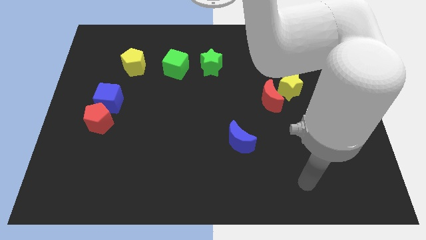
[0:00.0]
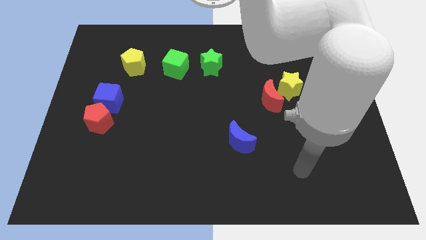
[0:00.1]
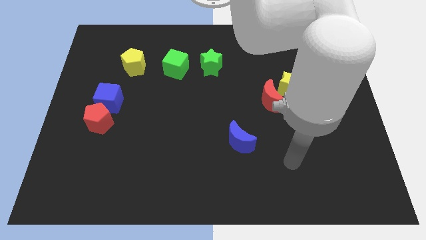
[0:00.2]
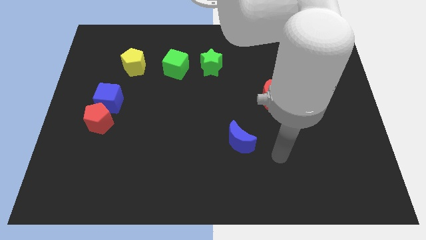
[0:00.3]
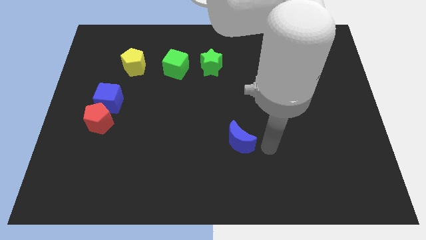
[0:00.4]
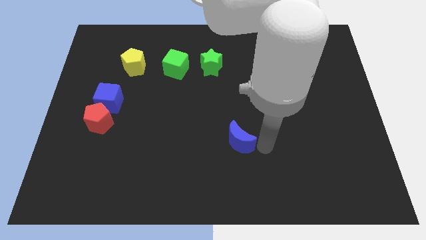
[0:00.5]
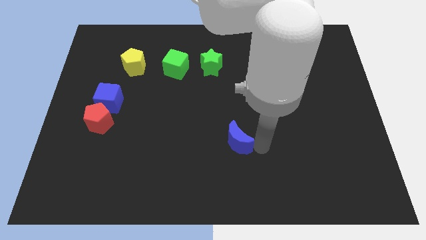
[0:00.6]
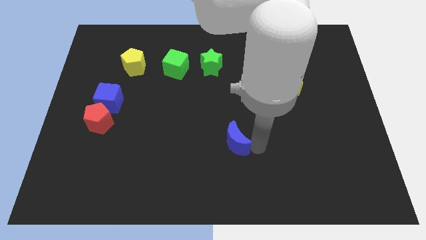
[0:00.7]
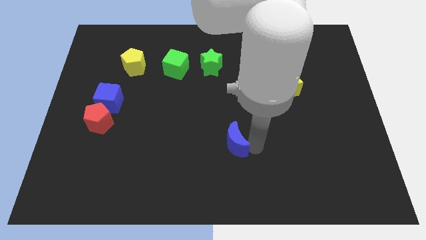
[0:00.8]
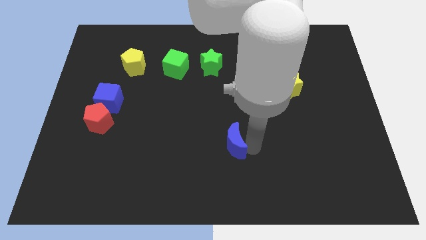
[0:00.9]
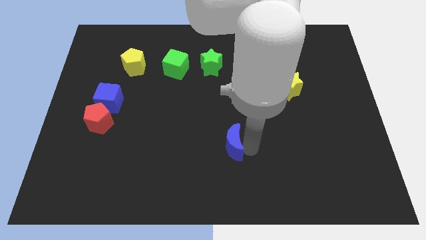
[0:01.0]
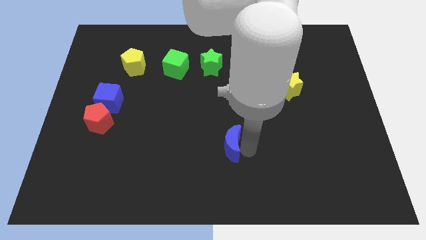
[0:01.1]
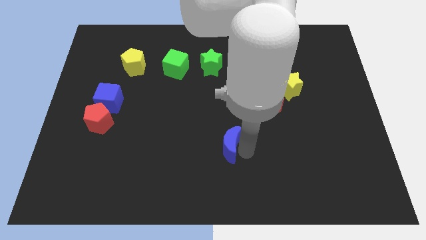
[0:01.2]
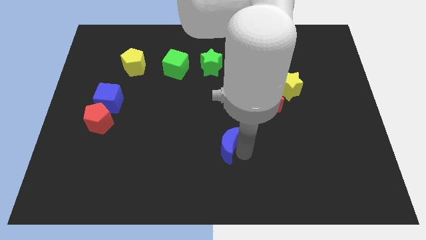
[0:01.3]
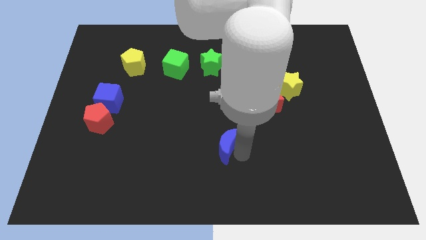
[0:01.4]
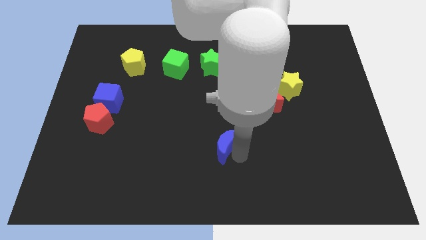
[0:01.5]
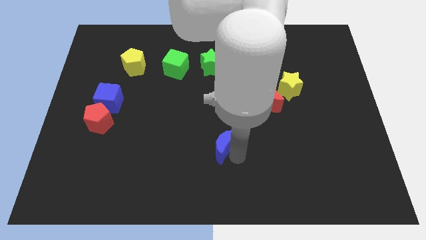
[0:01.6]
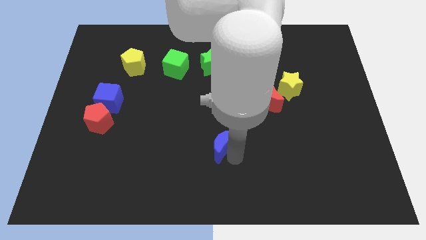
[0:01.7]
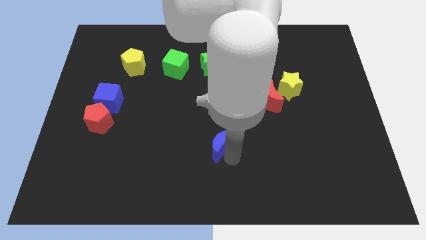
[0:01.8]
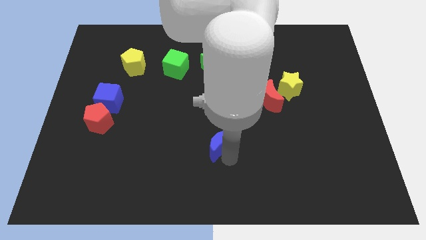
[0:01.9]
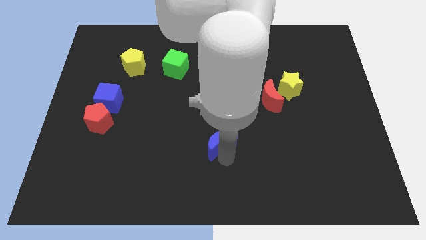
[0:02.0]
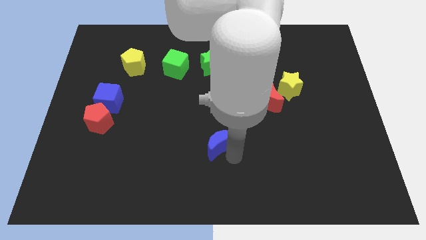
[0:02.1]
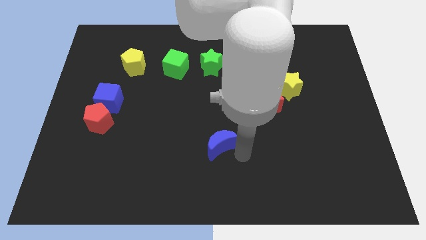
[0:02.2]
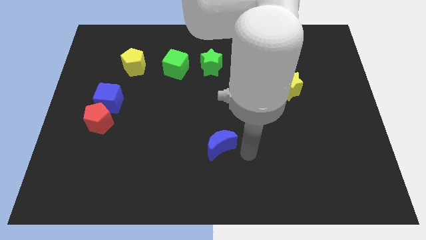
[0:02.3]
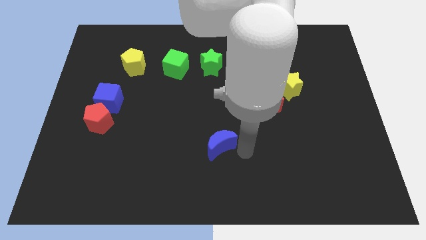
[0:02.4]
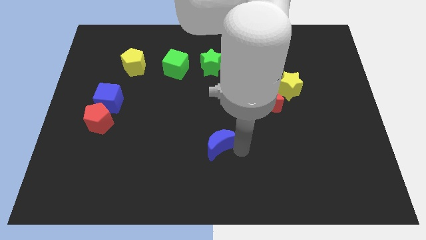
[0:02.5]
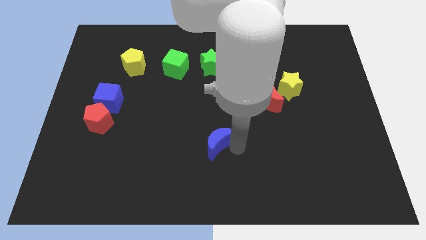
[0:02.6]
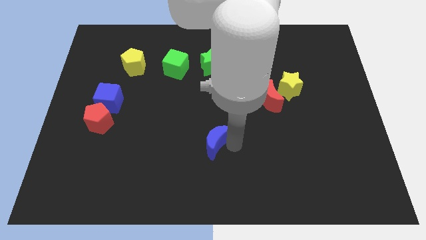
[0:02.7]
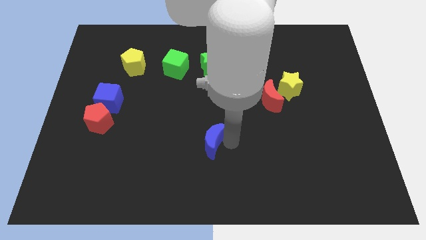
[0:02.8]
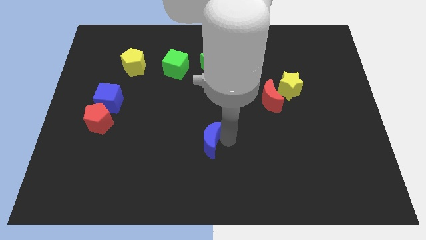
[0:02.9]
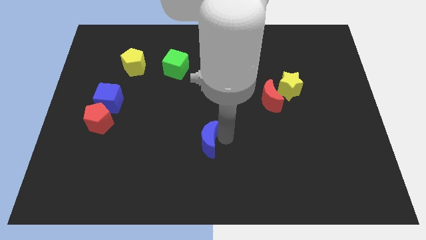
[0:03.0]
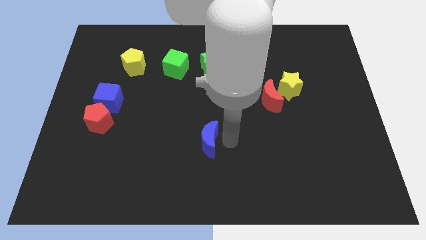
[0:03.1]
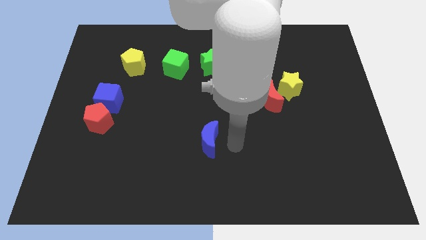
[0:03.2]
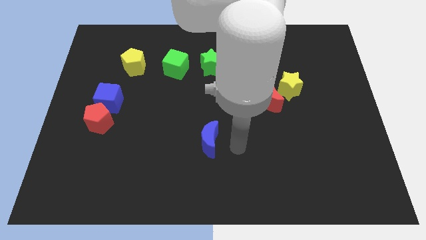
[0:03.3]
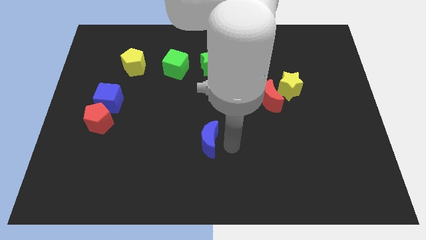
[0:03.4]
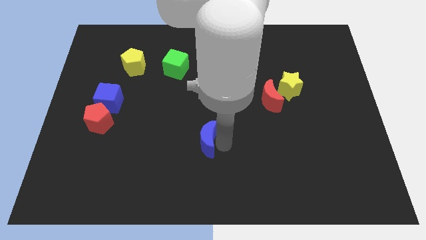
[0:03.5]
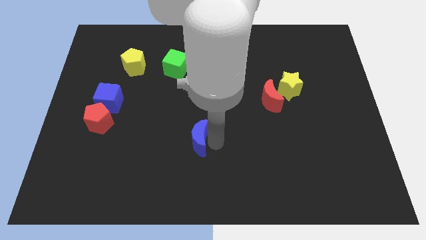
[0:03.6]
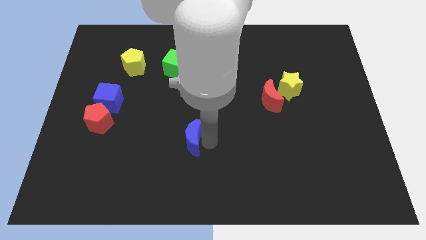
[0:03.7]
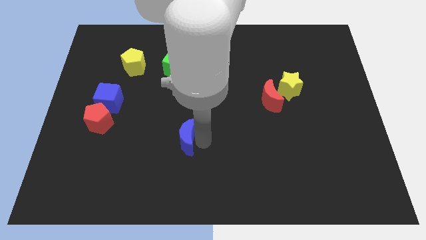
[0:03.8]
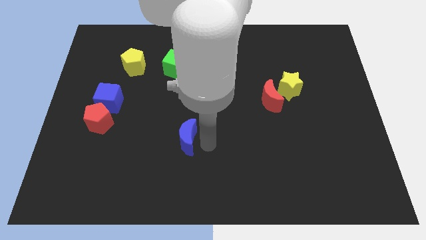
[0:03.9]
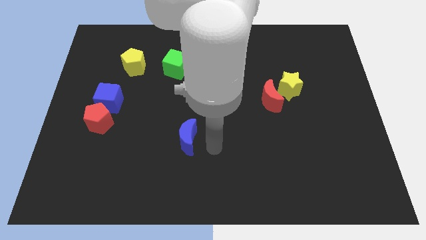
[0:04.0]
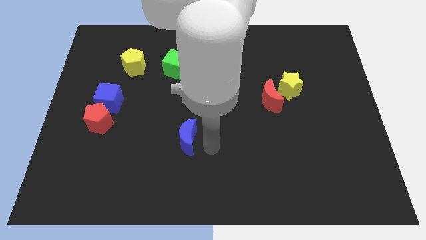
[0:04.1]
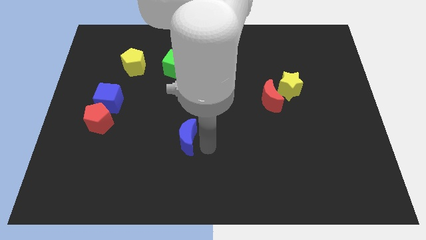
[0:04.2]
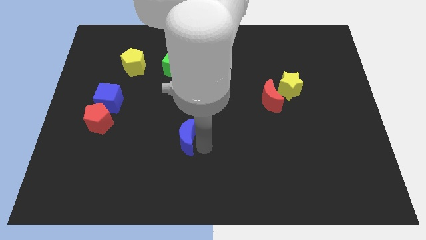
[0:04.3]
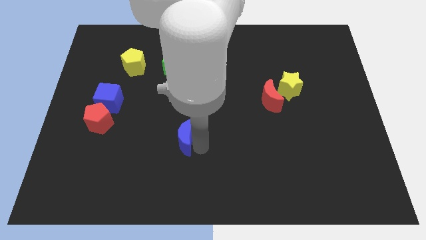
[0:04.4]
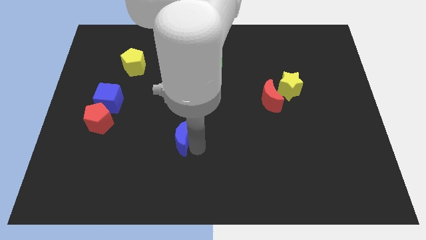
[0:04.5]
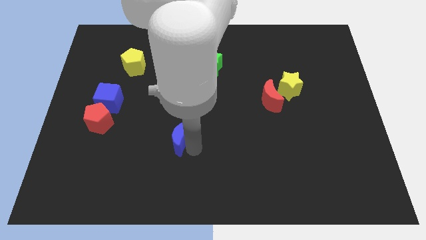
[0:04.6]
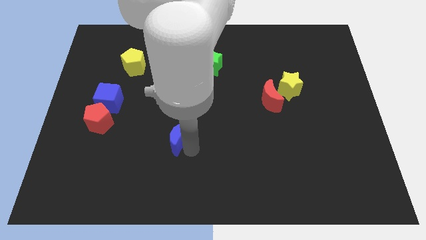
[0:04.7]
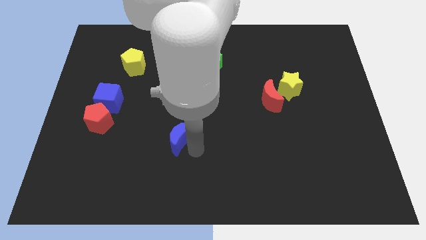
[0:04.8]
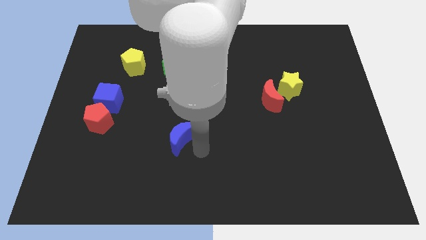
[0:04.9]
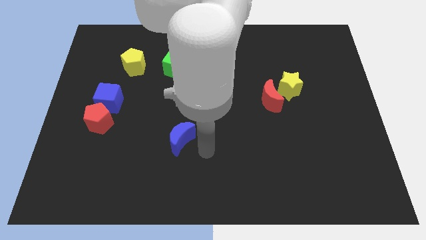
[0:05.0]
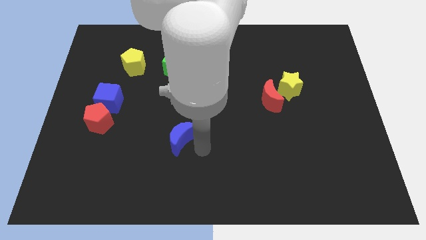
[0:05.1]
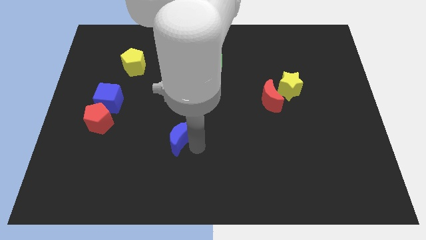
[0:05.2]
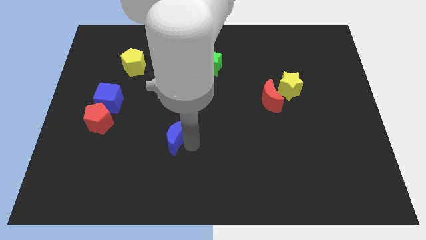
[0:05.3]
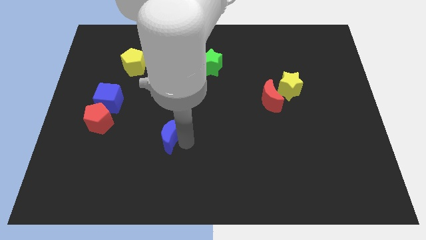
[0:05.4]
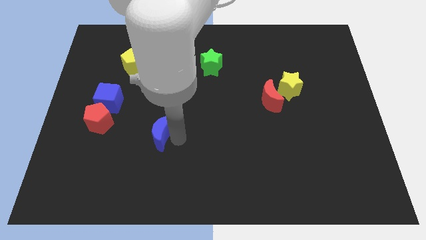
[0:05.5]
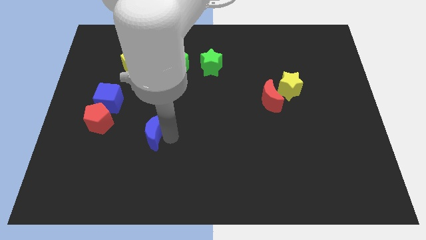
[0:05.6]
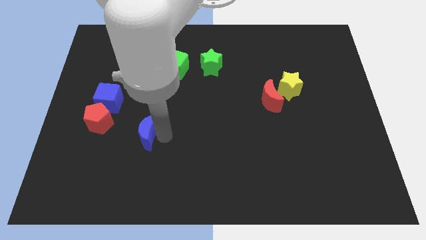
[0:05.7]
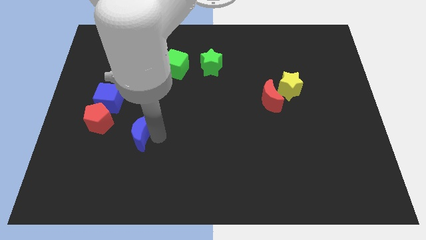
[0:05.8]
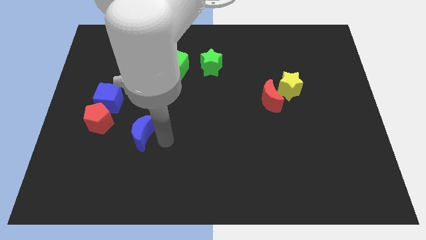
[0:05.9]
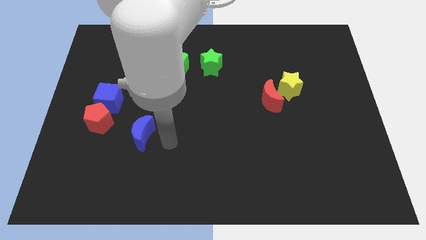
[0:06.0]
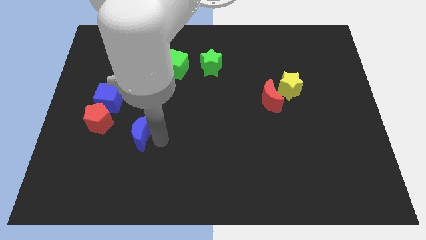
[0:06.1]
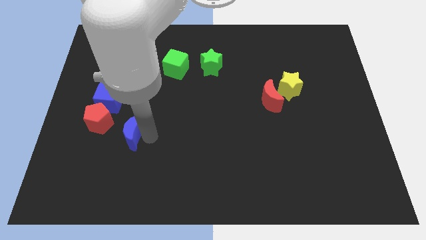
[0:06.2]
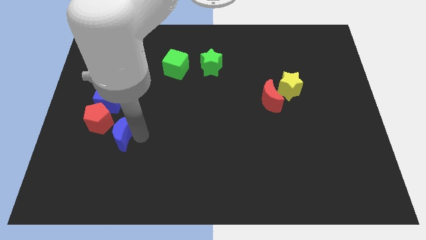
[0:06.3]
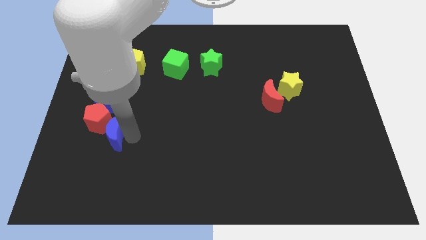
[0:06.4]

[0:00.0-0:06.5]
put the blue moon towards the red pentagon

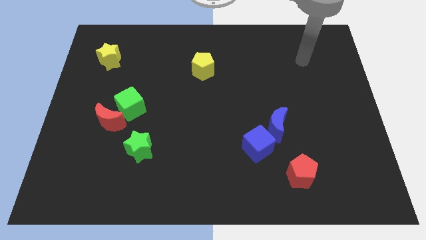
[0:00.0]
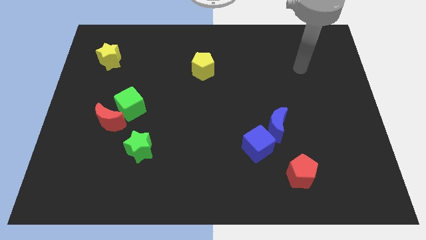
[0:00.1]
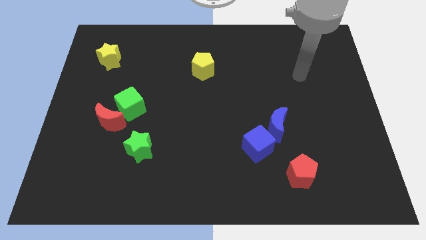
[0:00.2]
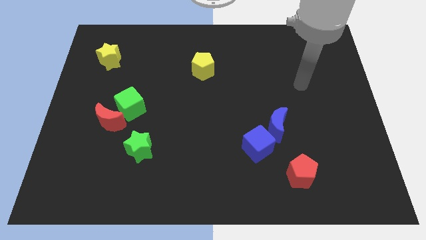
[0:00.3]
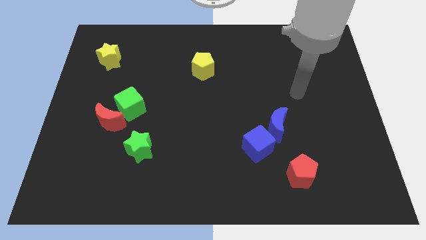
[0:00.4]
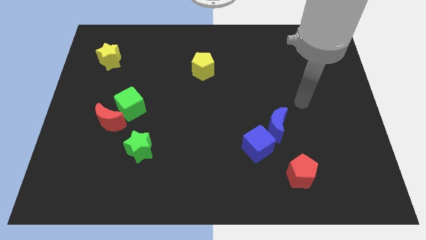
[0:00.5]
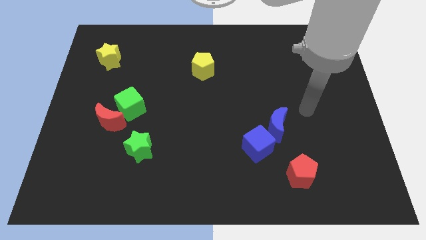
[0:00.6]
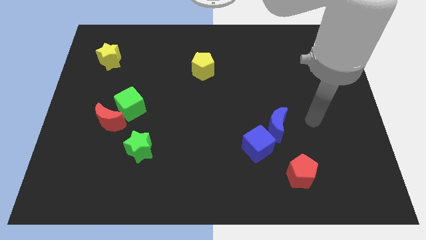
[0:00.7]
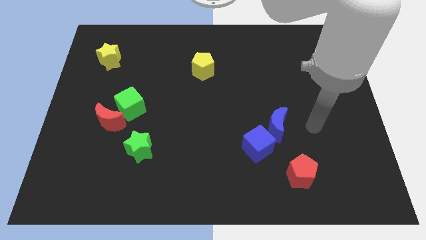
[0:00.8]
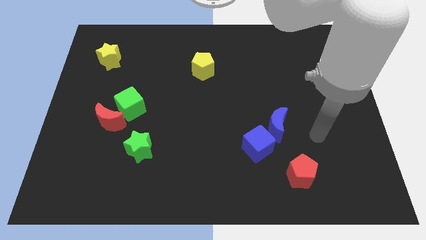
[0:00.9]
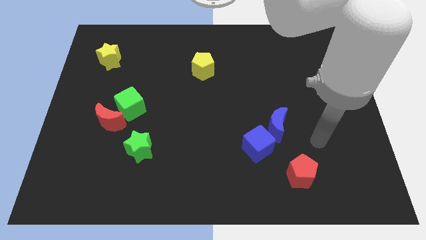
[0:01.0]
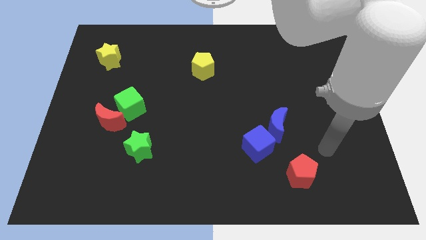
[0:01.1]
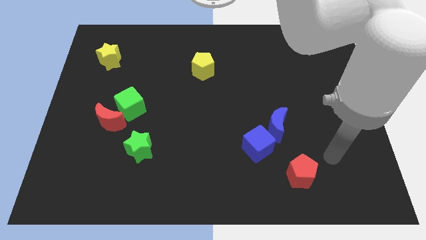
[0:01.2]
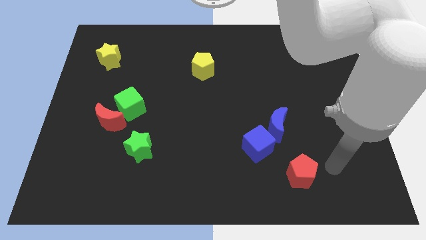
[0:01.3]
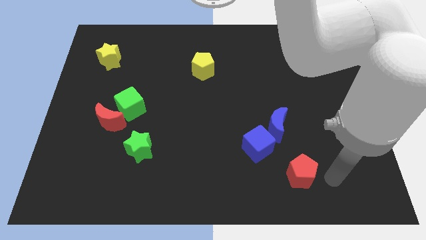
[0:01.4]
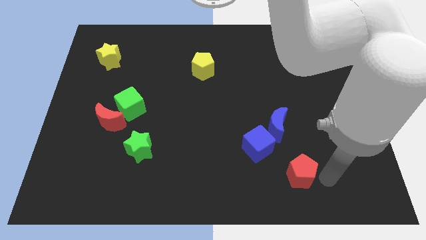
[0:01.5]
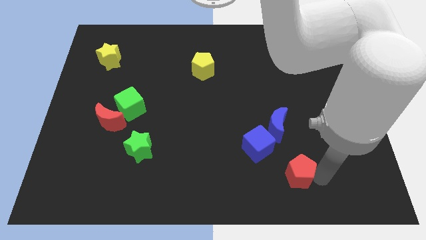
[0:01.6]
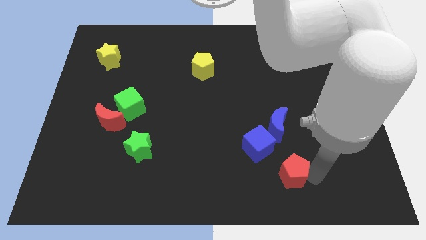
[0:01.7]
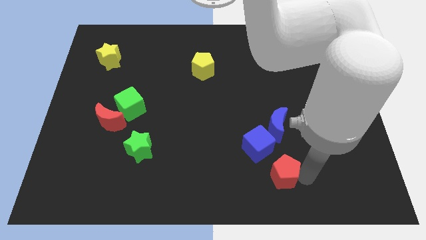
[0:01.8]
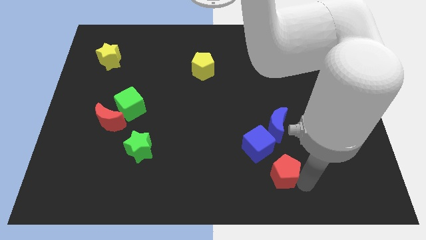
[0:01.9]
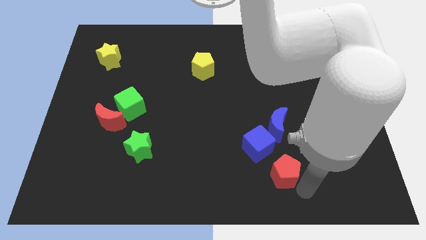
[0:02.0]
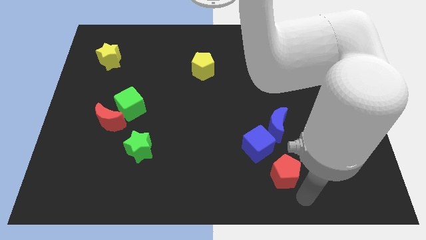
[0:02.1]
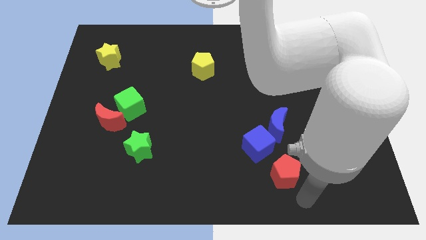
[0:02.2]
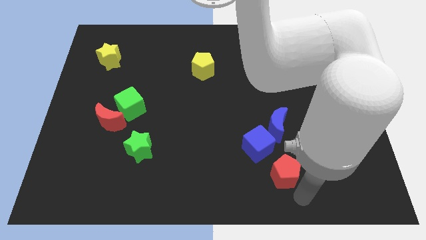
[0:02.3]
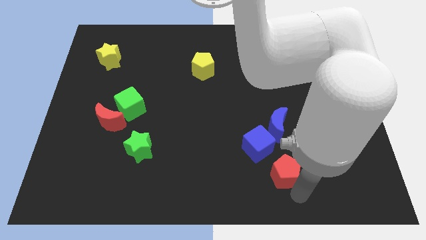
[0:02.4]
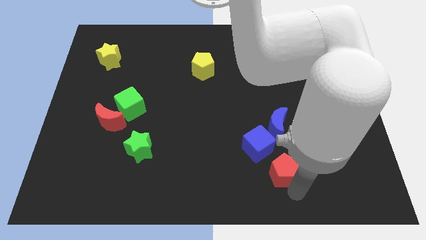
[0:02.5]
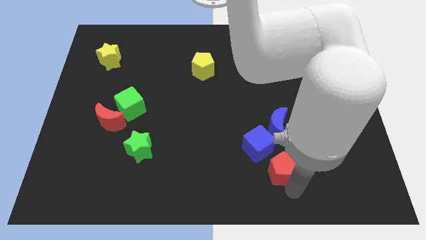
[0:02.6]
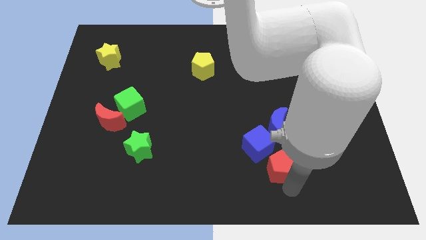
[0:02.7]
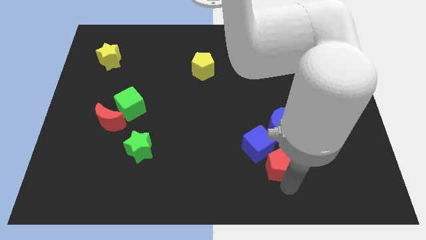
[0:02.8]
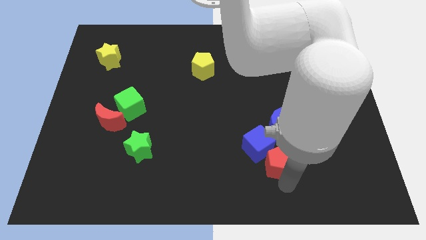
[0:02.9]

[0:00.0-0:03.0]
slide the red pentagon to the blue cube
